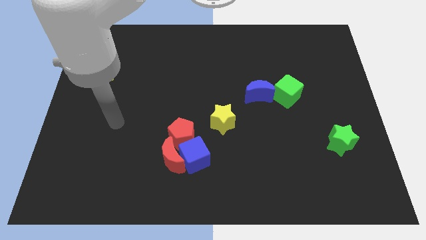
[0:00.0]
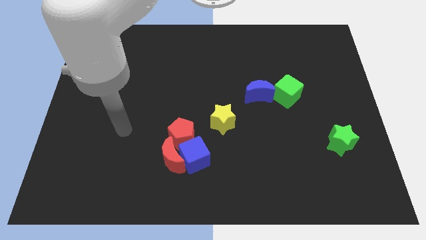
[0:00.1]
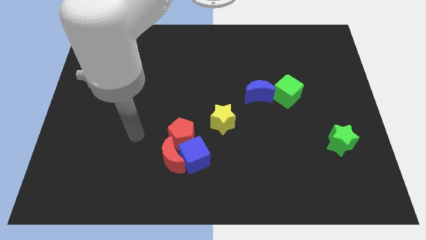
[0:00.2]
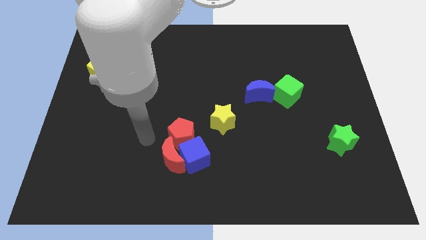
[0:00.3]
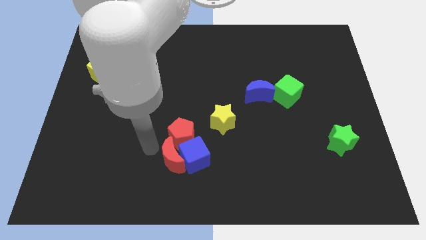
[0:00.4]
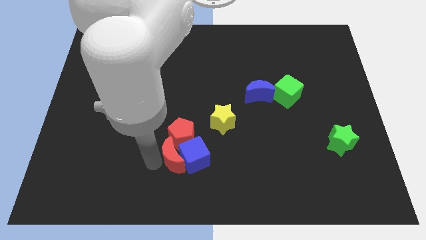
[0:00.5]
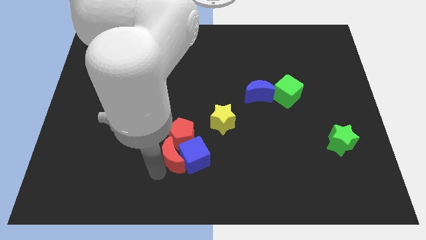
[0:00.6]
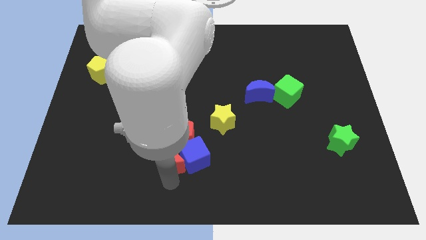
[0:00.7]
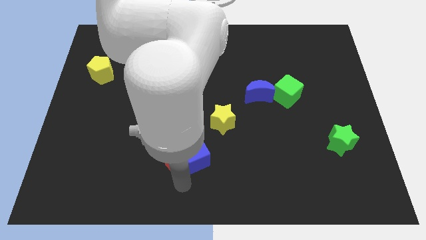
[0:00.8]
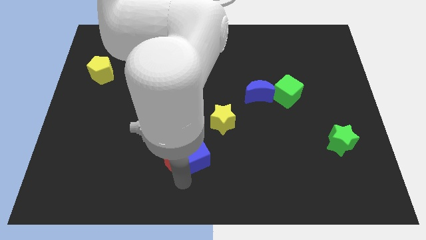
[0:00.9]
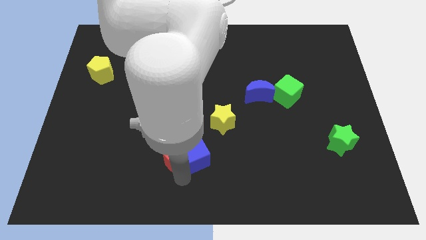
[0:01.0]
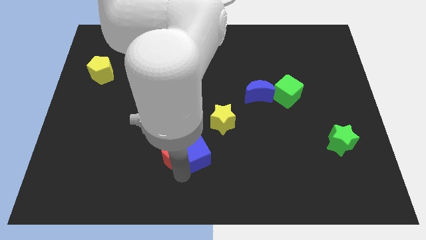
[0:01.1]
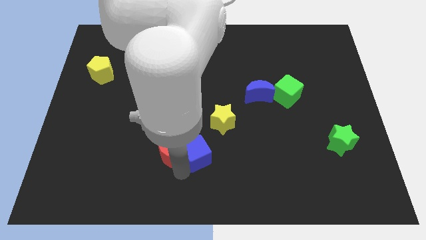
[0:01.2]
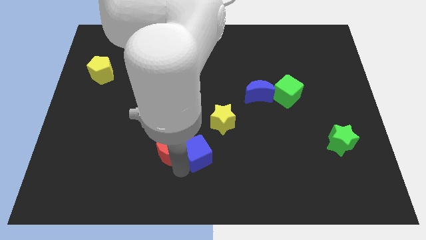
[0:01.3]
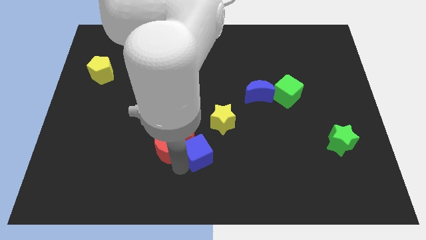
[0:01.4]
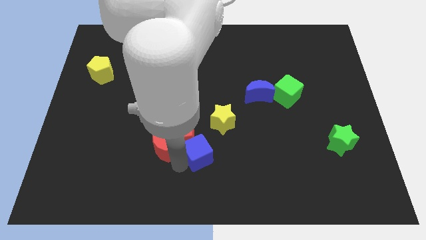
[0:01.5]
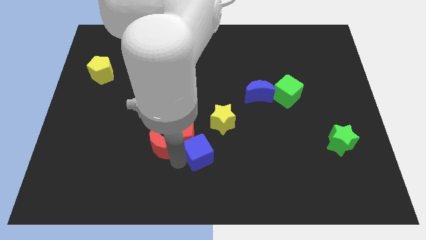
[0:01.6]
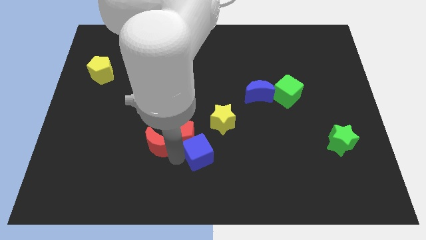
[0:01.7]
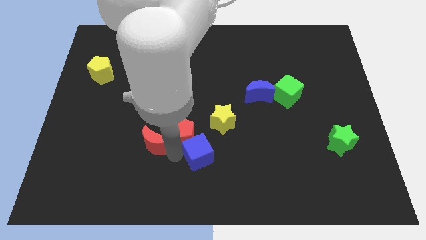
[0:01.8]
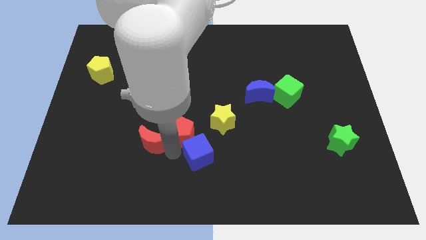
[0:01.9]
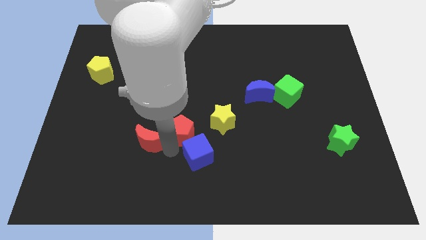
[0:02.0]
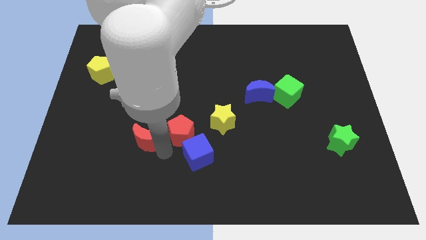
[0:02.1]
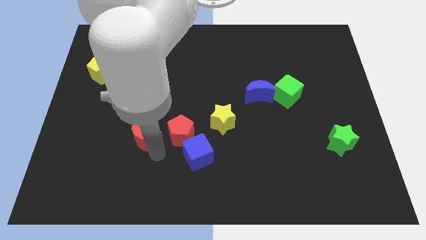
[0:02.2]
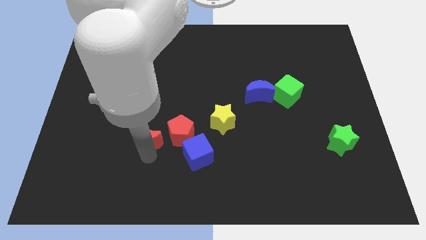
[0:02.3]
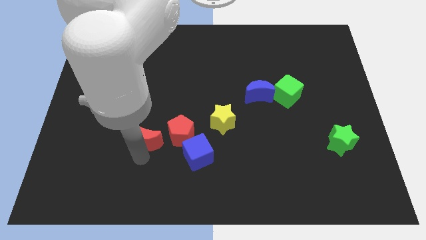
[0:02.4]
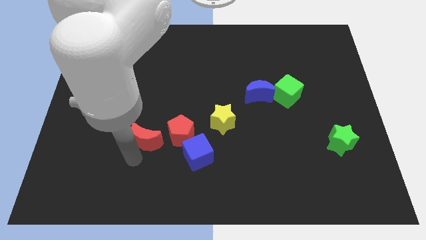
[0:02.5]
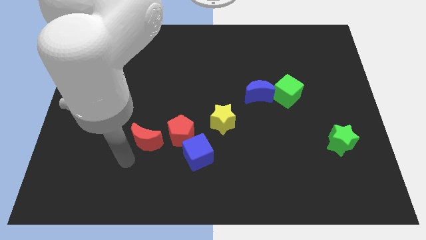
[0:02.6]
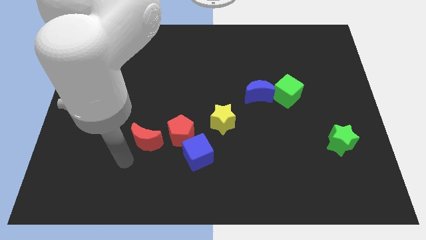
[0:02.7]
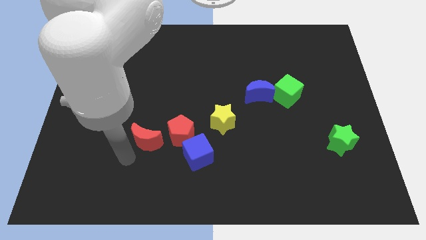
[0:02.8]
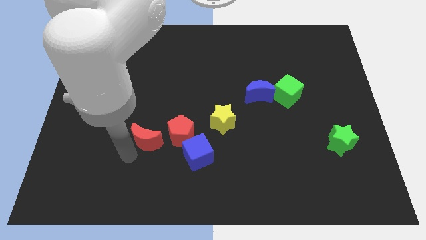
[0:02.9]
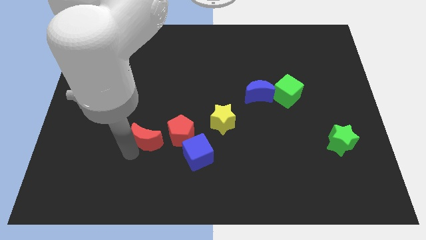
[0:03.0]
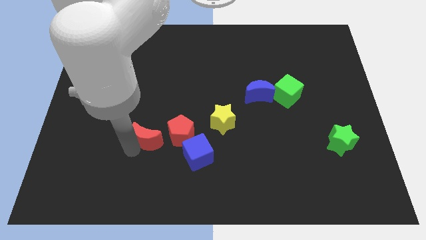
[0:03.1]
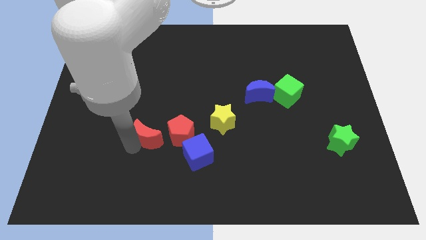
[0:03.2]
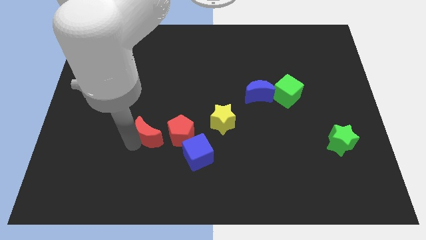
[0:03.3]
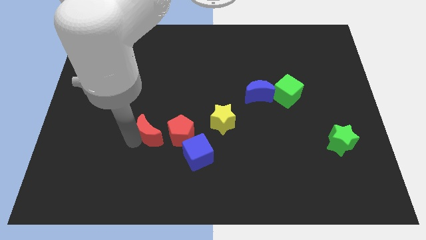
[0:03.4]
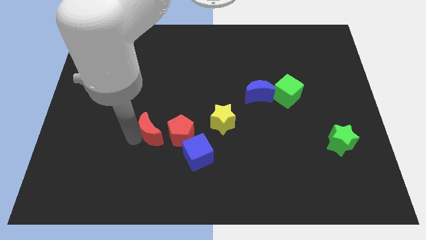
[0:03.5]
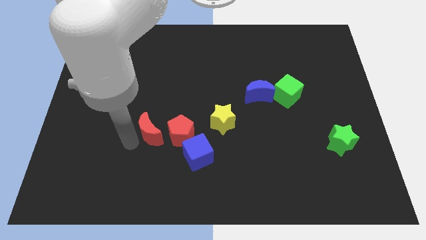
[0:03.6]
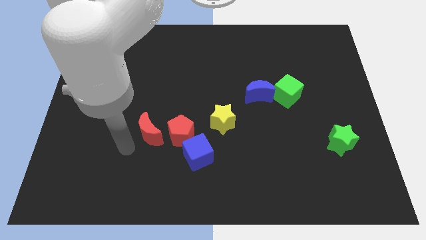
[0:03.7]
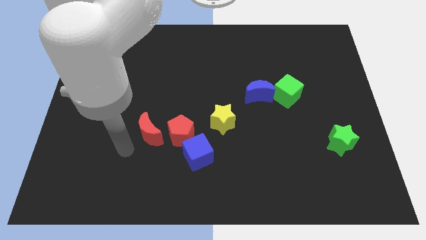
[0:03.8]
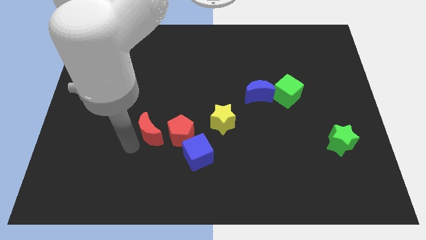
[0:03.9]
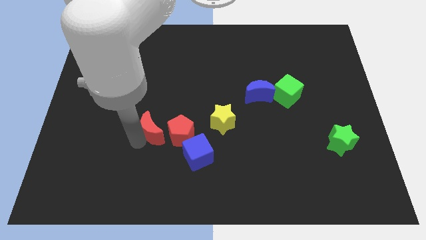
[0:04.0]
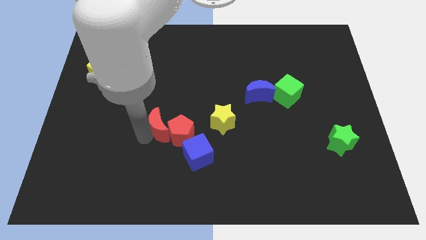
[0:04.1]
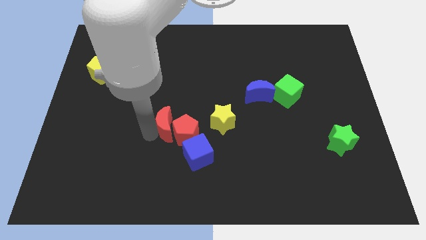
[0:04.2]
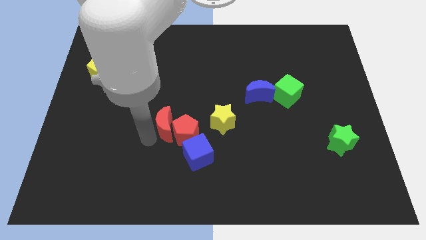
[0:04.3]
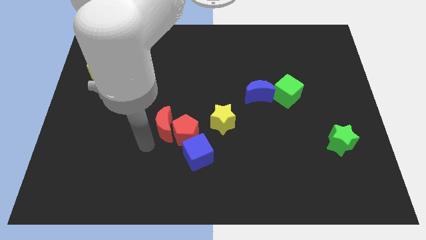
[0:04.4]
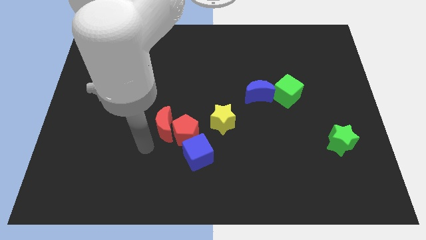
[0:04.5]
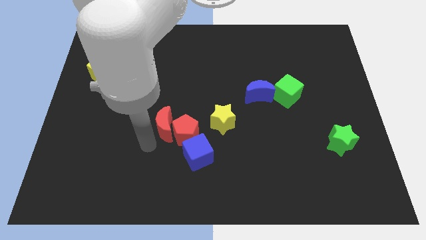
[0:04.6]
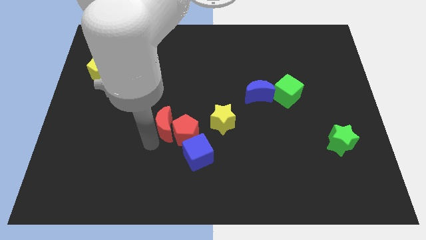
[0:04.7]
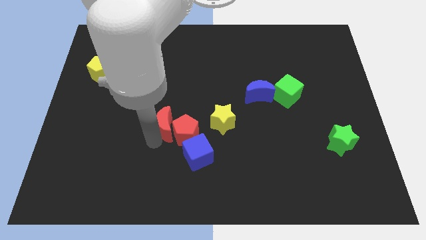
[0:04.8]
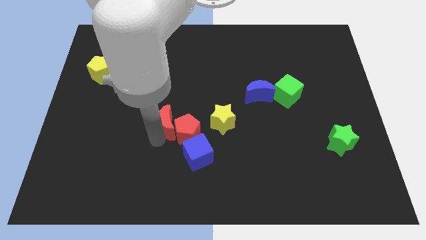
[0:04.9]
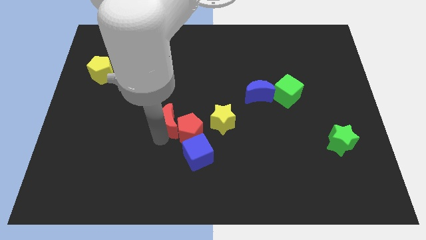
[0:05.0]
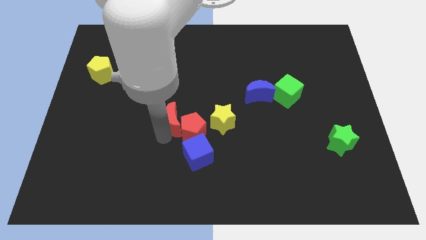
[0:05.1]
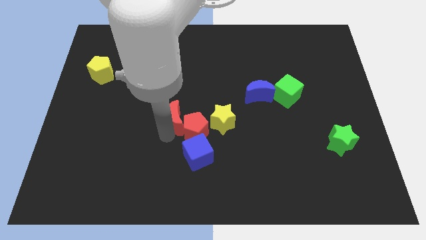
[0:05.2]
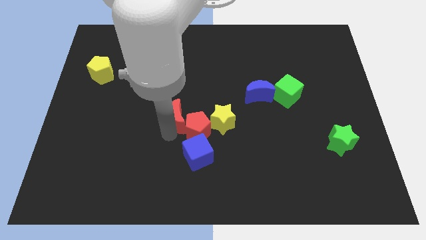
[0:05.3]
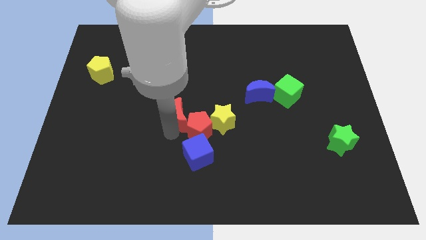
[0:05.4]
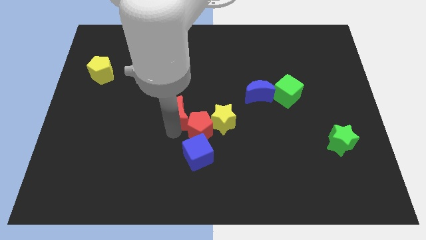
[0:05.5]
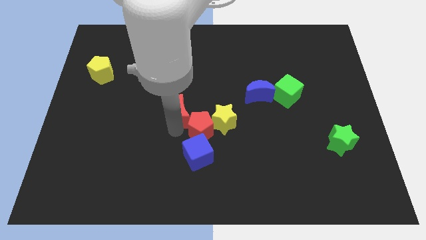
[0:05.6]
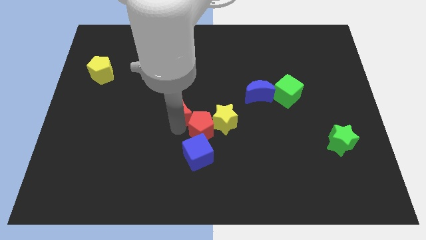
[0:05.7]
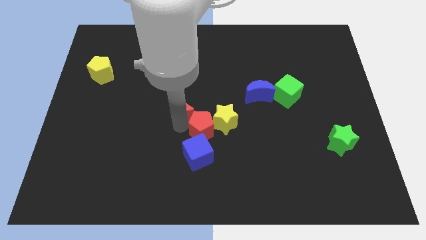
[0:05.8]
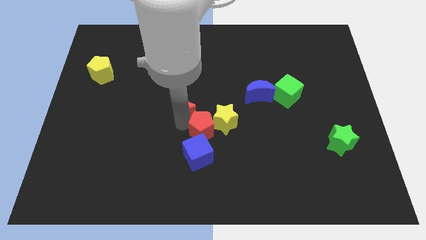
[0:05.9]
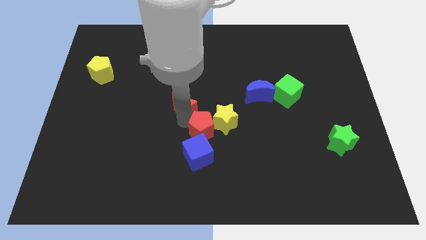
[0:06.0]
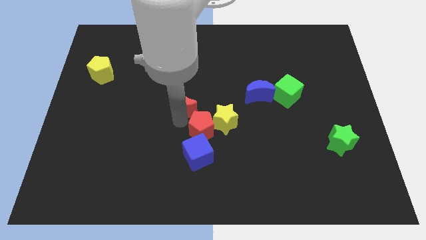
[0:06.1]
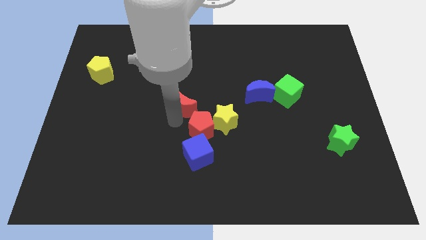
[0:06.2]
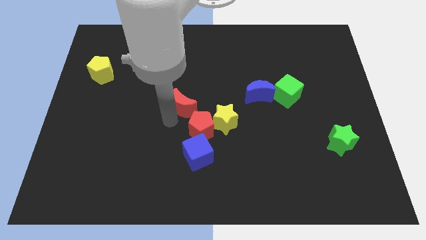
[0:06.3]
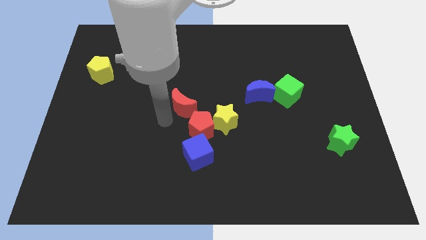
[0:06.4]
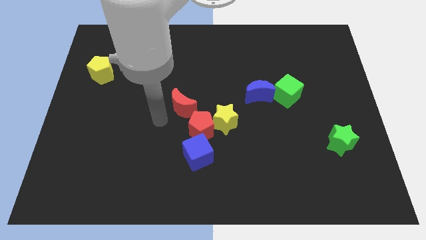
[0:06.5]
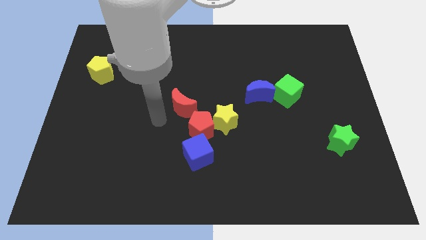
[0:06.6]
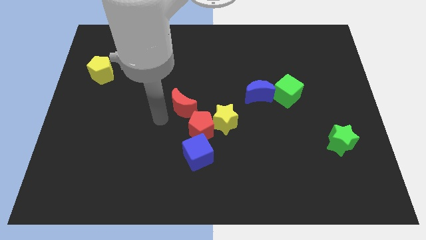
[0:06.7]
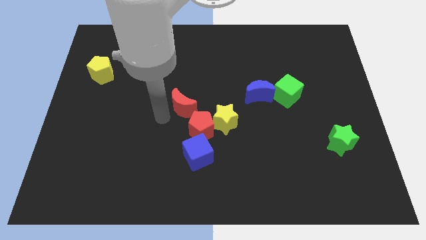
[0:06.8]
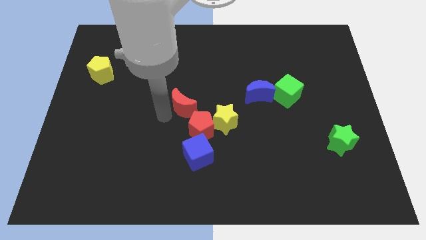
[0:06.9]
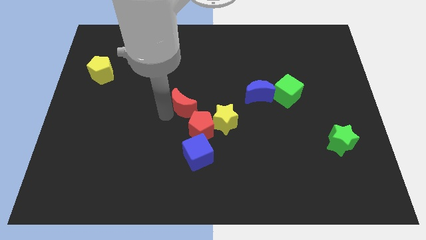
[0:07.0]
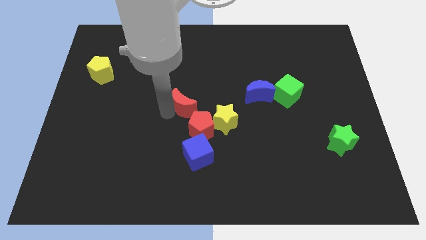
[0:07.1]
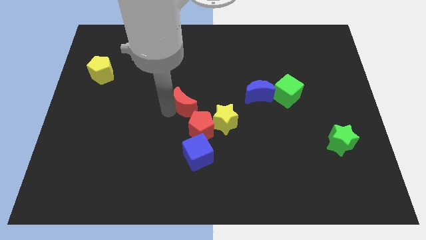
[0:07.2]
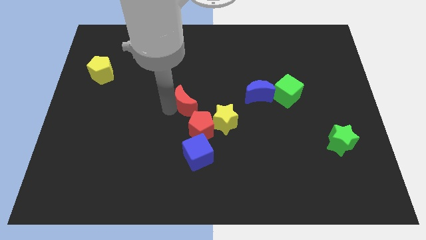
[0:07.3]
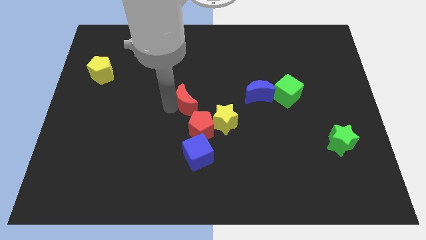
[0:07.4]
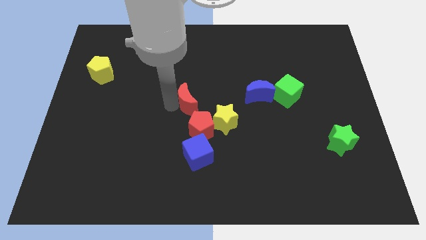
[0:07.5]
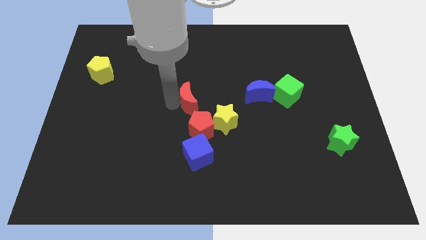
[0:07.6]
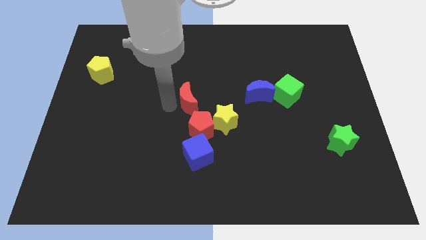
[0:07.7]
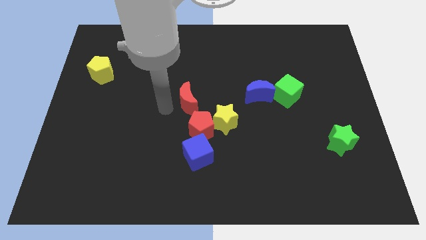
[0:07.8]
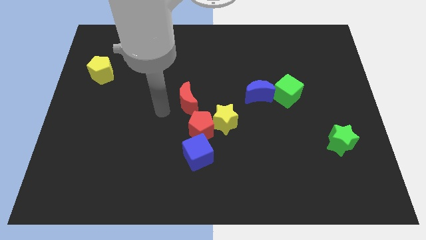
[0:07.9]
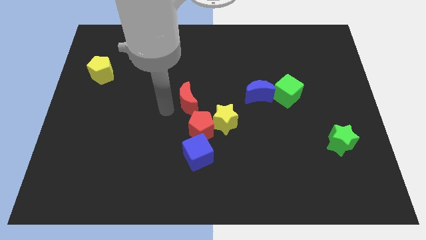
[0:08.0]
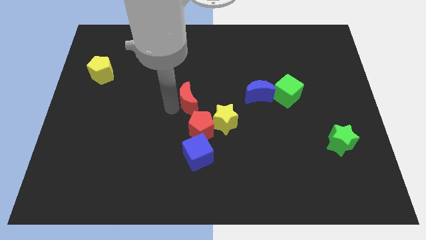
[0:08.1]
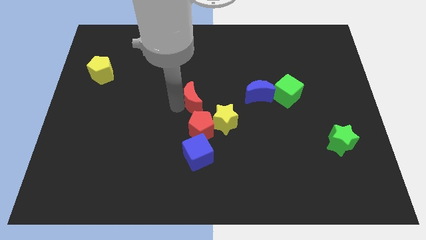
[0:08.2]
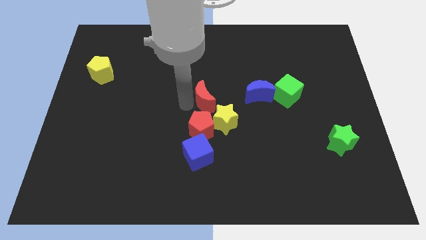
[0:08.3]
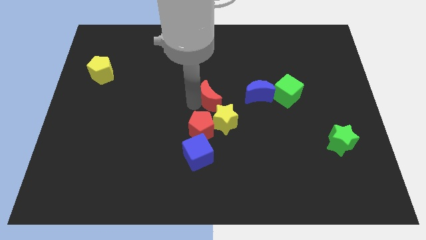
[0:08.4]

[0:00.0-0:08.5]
push the red moon to the top of the yellow star
